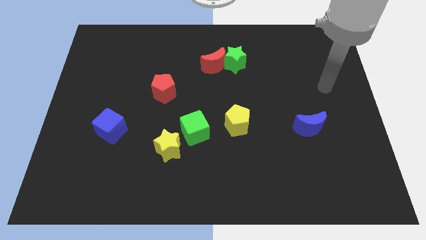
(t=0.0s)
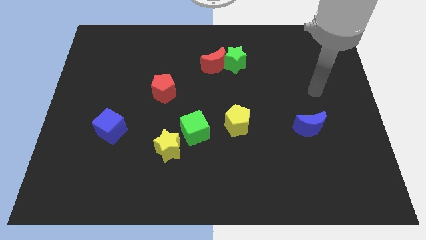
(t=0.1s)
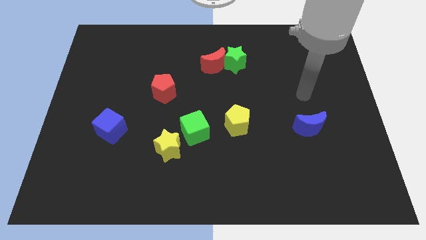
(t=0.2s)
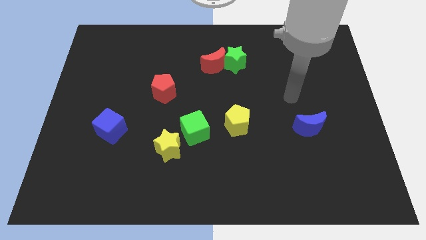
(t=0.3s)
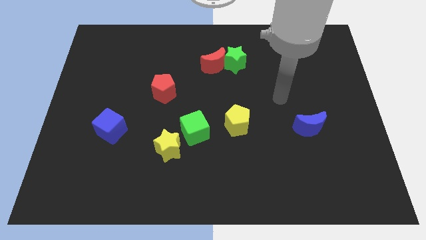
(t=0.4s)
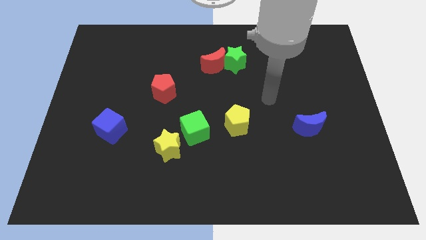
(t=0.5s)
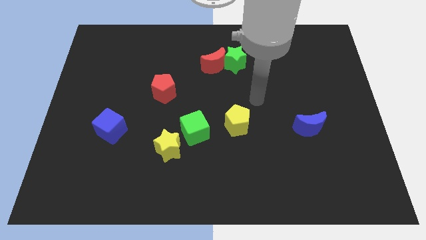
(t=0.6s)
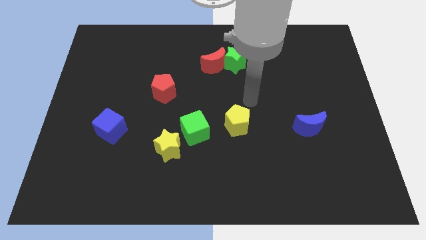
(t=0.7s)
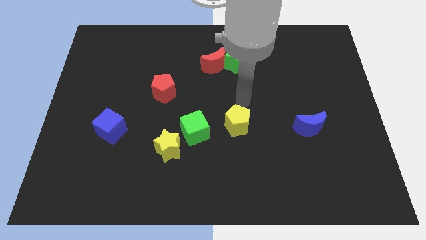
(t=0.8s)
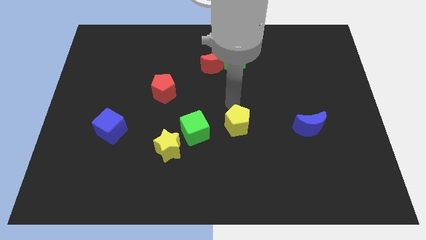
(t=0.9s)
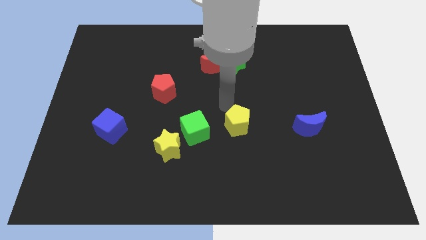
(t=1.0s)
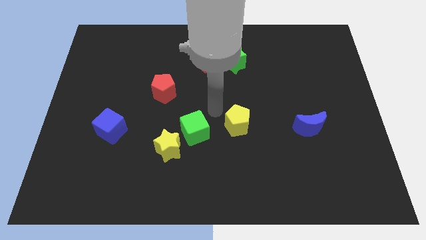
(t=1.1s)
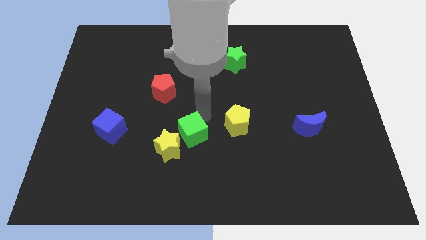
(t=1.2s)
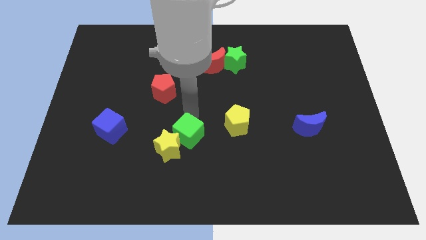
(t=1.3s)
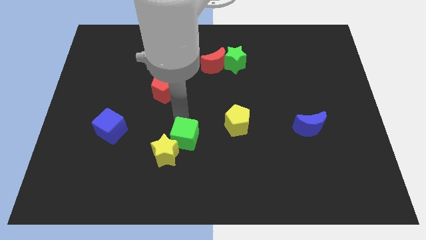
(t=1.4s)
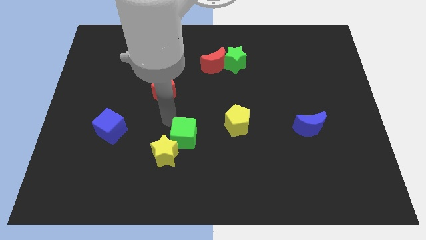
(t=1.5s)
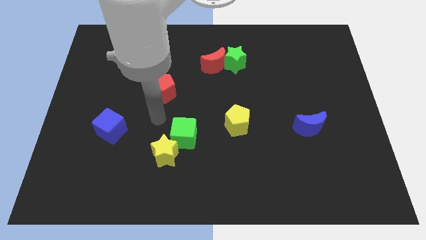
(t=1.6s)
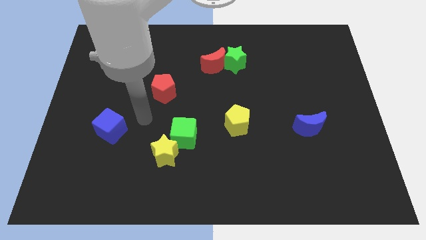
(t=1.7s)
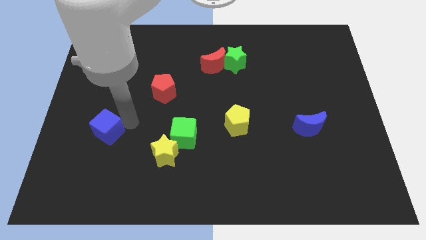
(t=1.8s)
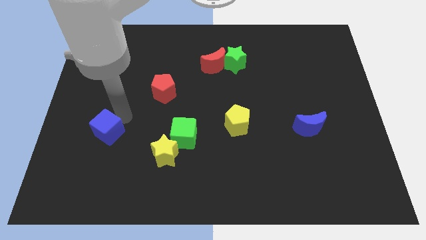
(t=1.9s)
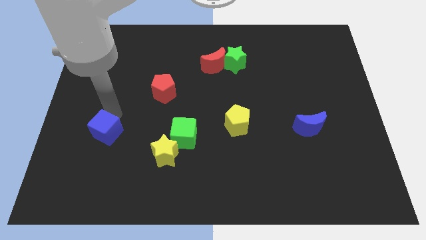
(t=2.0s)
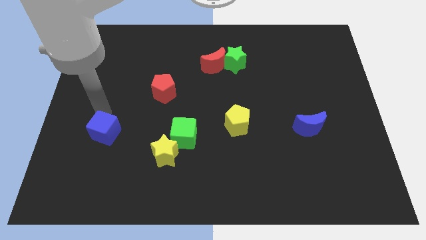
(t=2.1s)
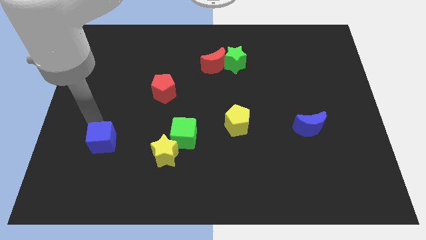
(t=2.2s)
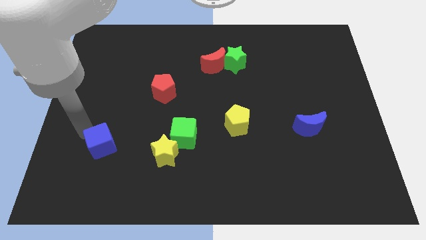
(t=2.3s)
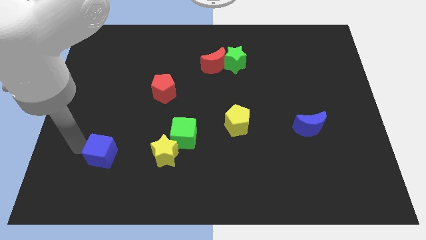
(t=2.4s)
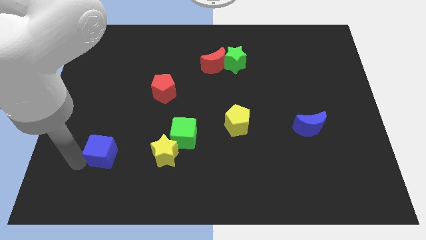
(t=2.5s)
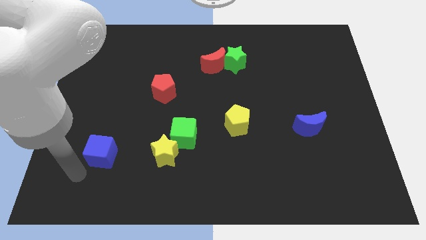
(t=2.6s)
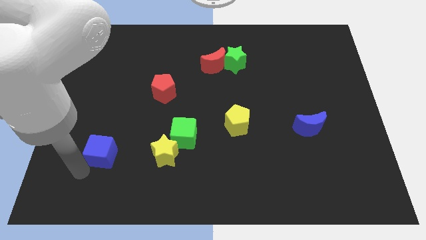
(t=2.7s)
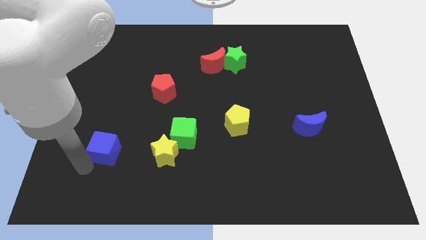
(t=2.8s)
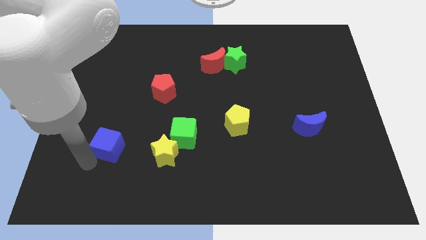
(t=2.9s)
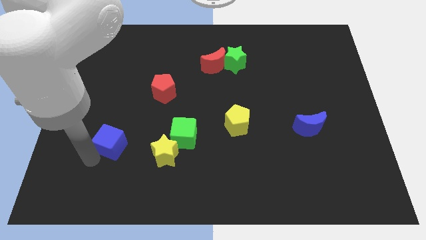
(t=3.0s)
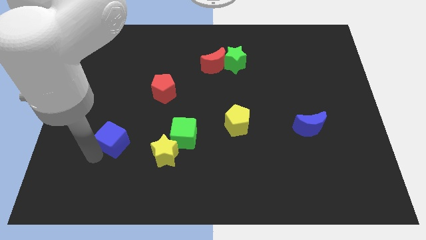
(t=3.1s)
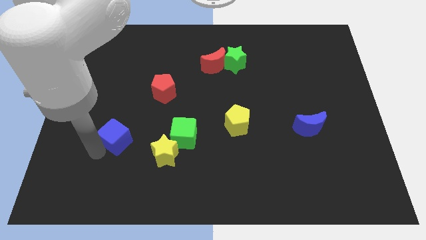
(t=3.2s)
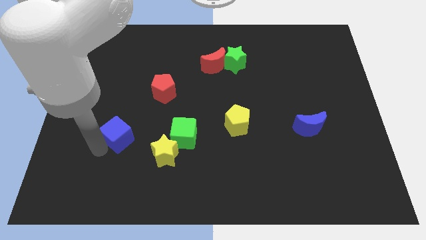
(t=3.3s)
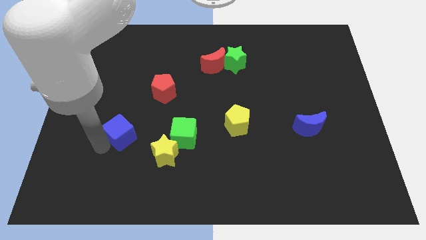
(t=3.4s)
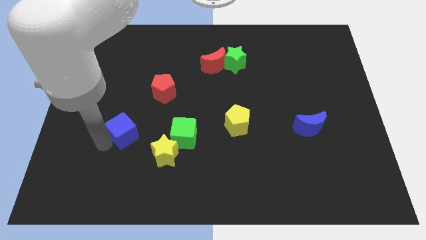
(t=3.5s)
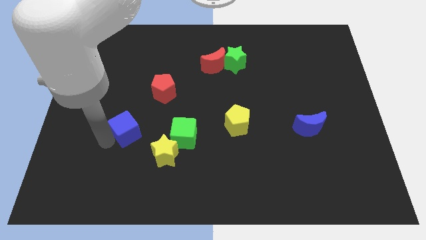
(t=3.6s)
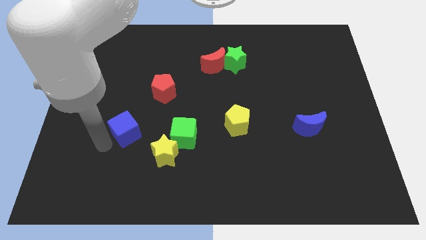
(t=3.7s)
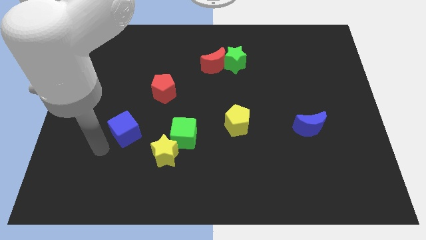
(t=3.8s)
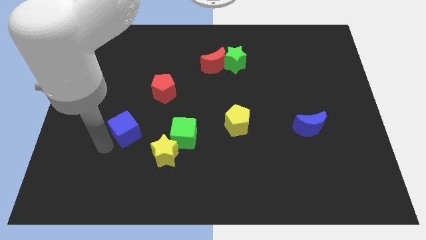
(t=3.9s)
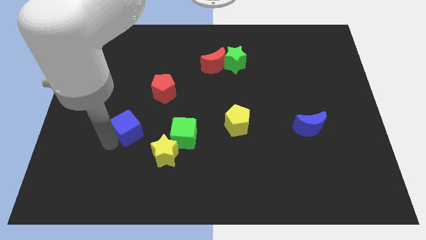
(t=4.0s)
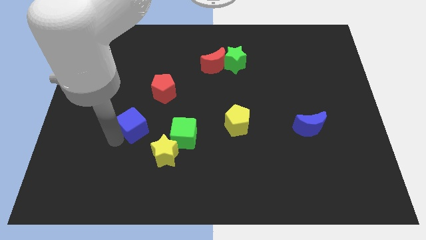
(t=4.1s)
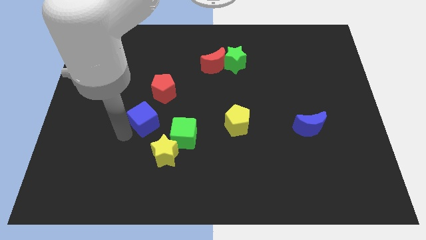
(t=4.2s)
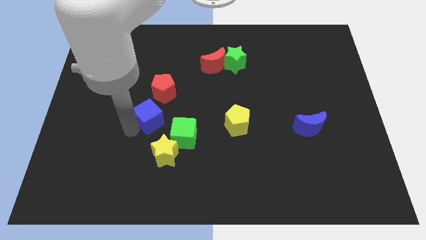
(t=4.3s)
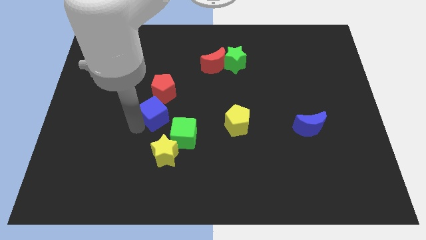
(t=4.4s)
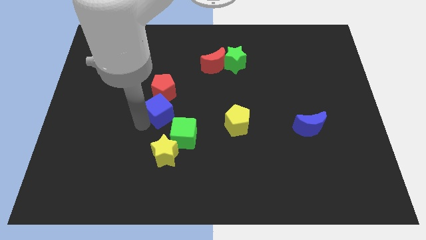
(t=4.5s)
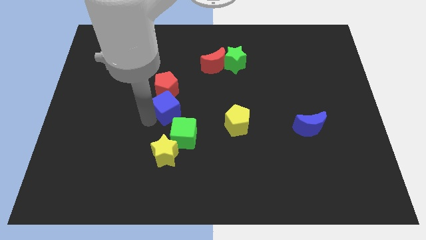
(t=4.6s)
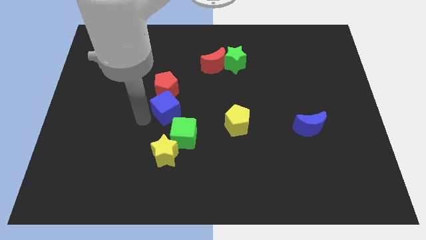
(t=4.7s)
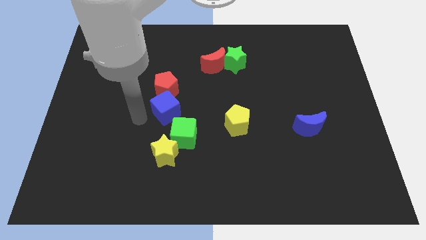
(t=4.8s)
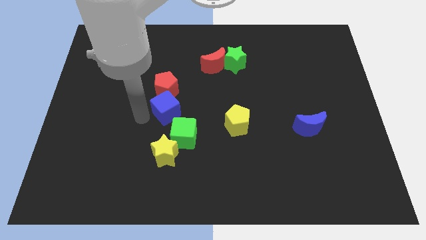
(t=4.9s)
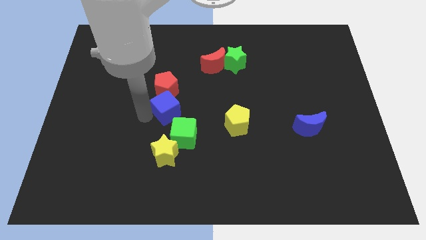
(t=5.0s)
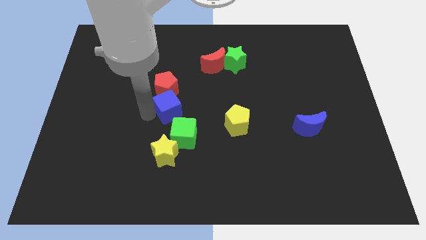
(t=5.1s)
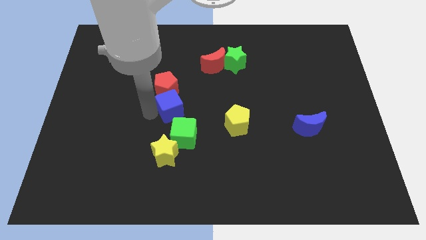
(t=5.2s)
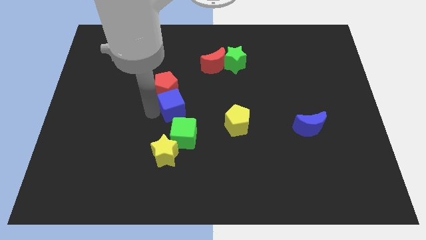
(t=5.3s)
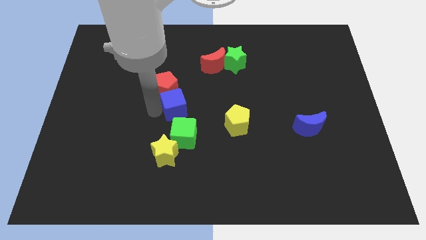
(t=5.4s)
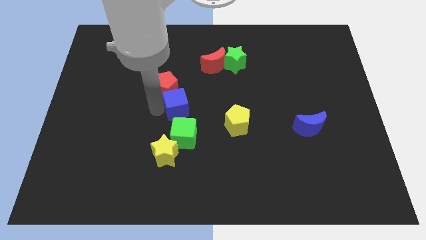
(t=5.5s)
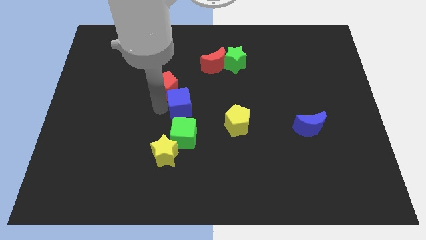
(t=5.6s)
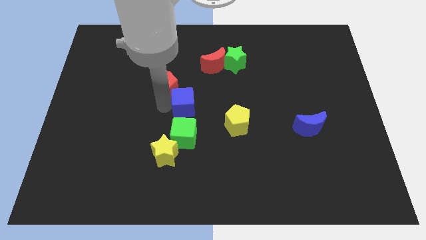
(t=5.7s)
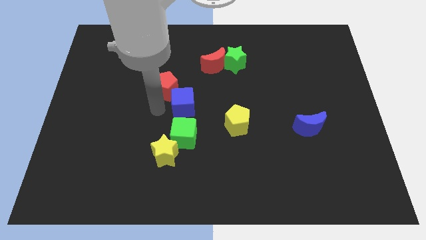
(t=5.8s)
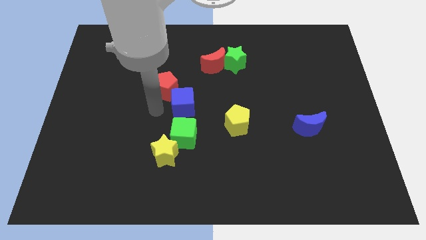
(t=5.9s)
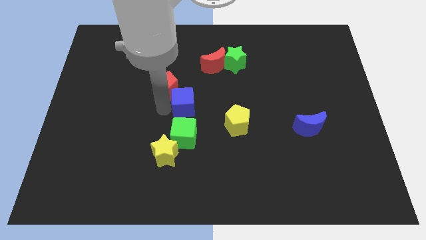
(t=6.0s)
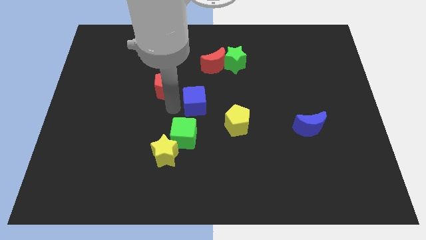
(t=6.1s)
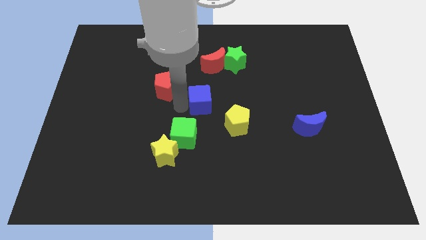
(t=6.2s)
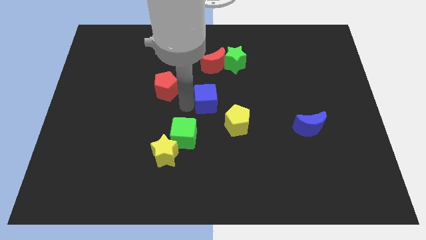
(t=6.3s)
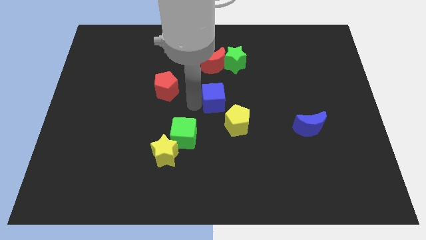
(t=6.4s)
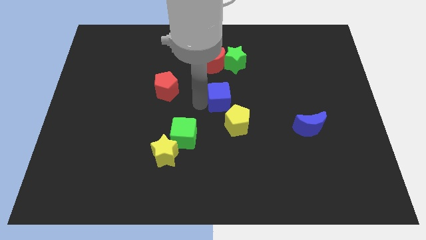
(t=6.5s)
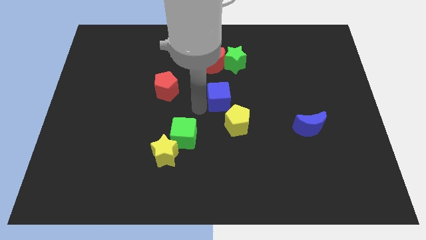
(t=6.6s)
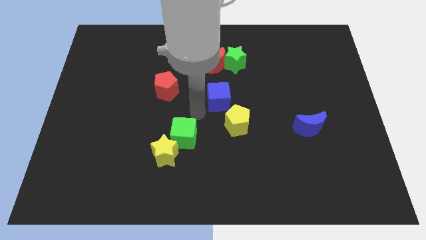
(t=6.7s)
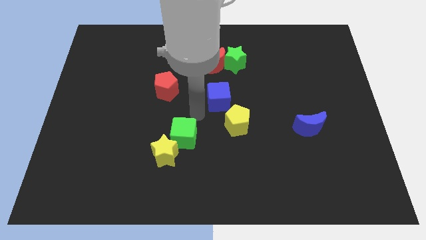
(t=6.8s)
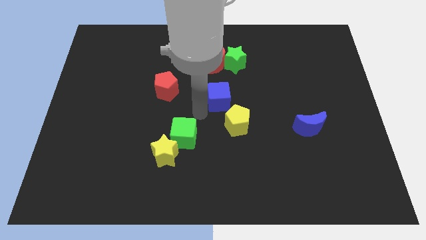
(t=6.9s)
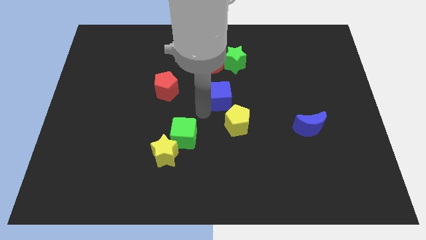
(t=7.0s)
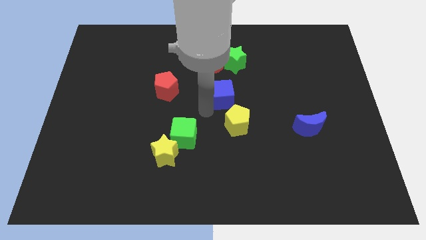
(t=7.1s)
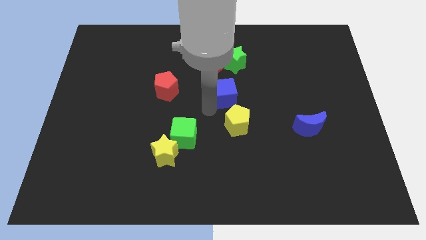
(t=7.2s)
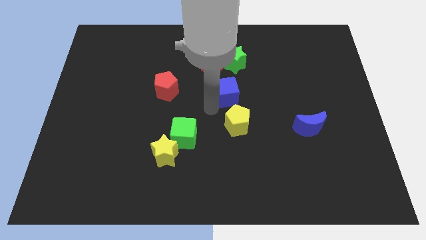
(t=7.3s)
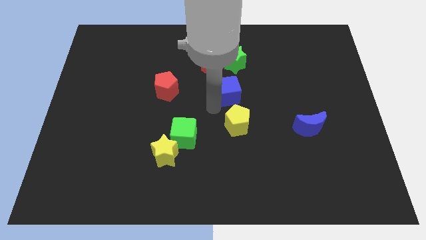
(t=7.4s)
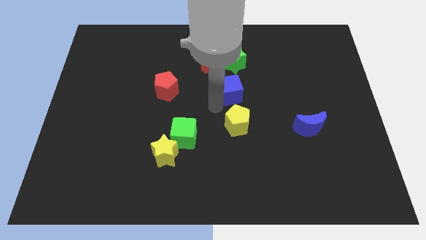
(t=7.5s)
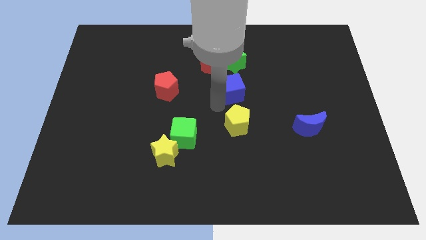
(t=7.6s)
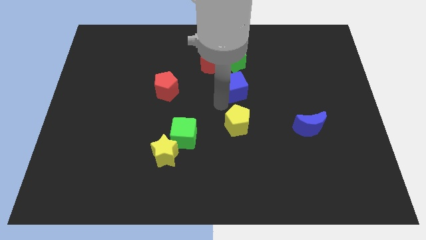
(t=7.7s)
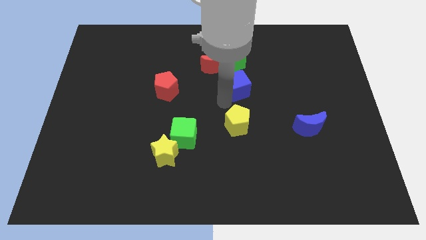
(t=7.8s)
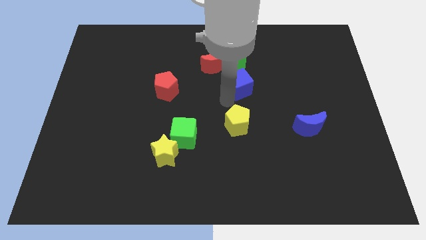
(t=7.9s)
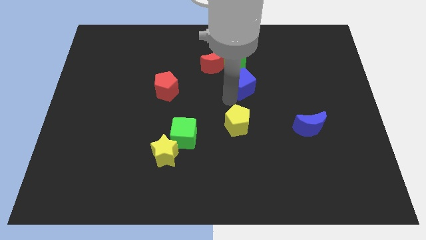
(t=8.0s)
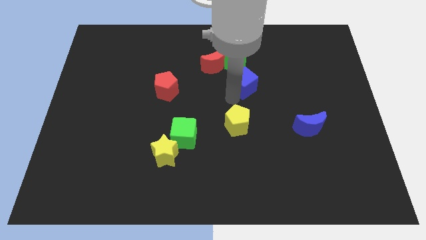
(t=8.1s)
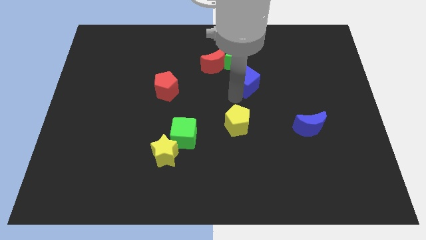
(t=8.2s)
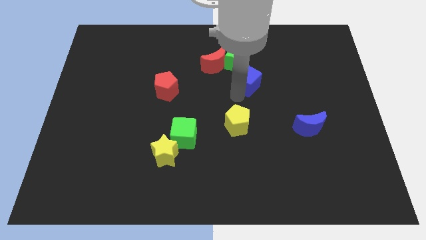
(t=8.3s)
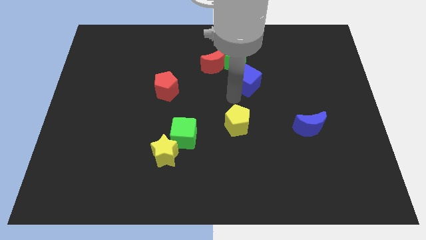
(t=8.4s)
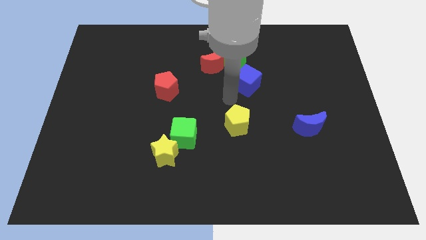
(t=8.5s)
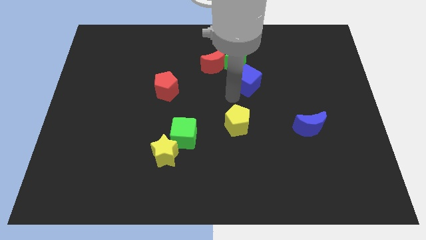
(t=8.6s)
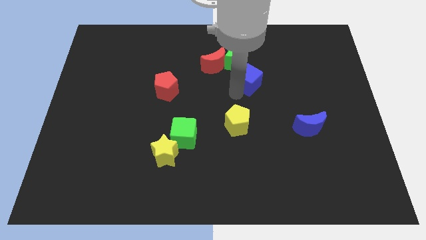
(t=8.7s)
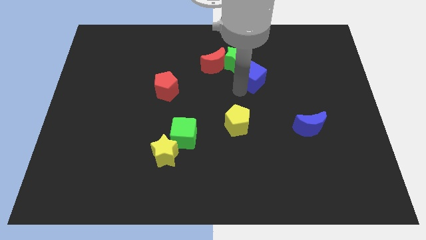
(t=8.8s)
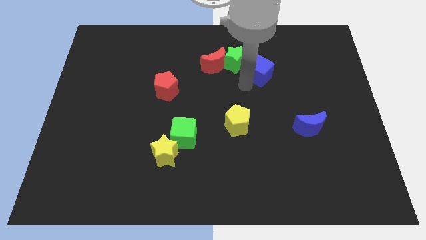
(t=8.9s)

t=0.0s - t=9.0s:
put the blue cube right of the green star
